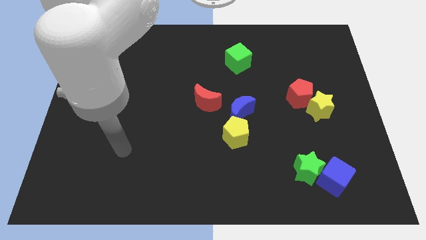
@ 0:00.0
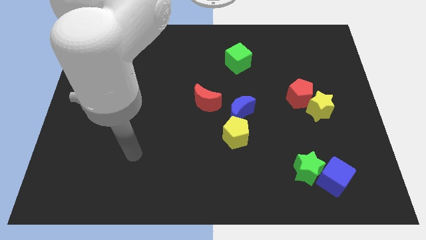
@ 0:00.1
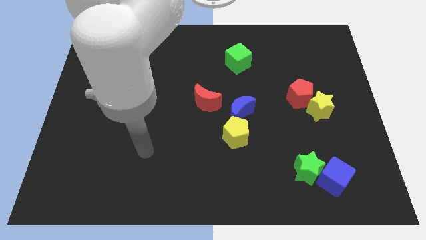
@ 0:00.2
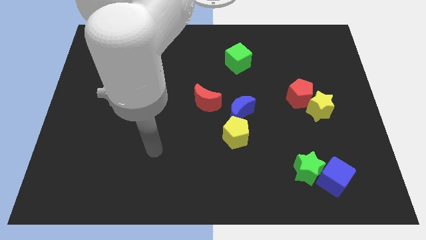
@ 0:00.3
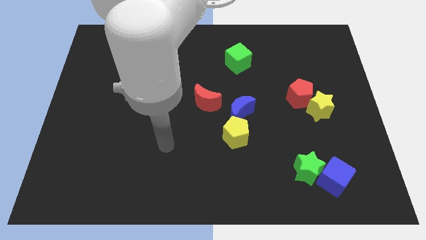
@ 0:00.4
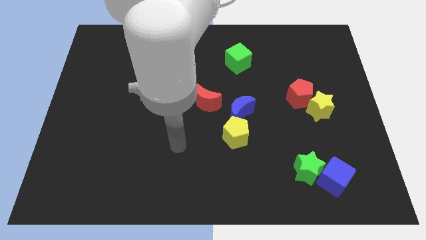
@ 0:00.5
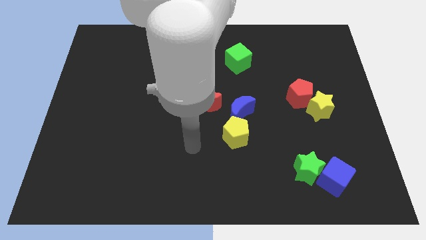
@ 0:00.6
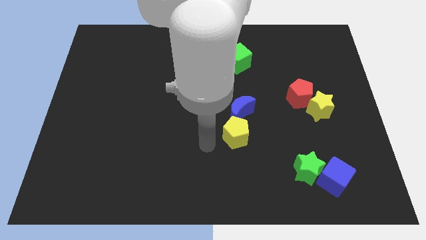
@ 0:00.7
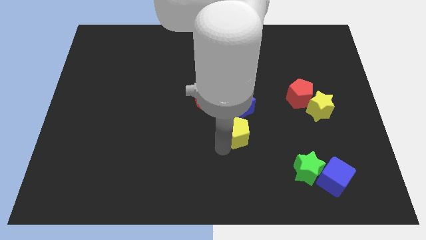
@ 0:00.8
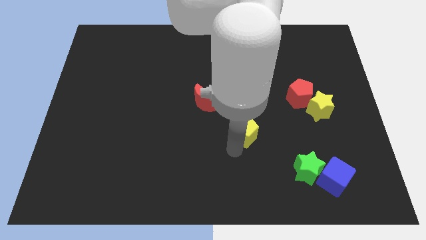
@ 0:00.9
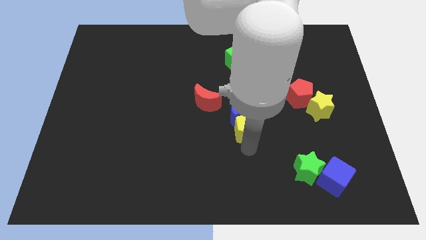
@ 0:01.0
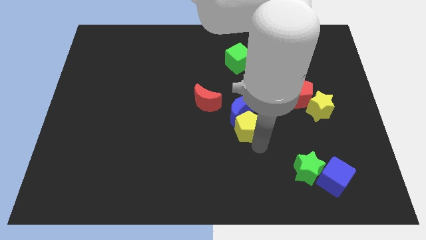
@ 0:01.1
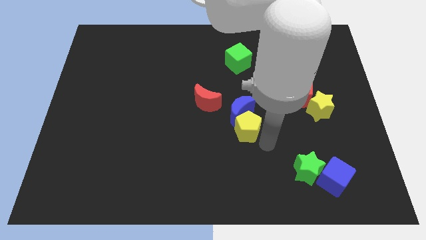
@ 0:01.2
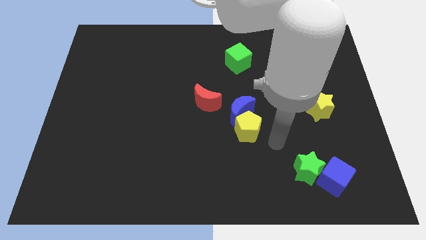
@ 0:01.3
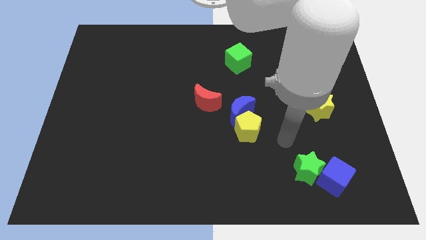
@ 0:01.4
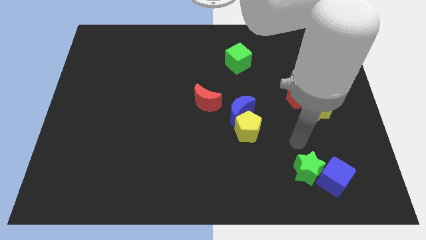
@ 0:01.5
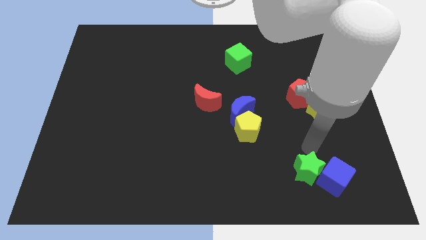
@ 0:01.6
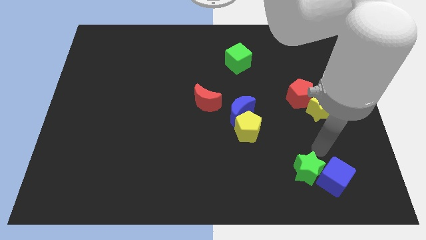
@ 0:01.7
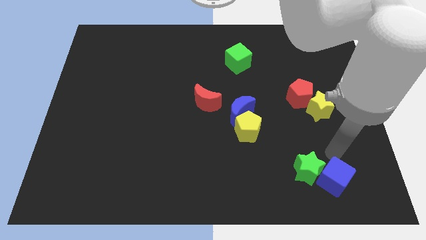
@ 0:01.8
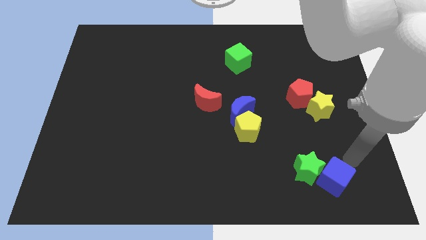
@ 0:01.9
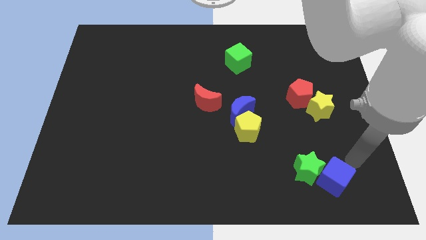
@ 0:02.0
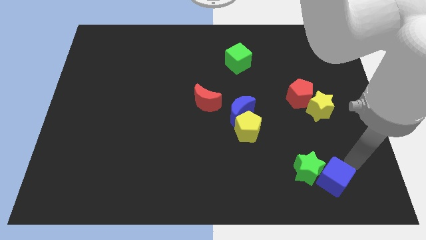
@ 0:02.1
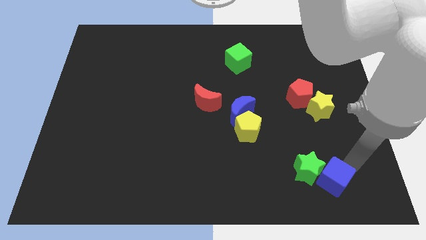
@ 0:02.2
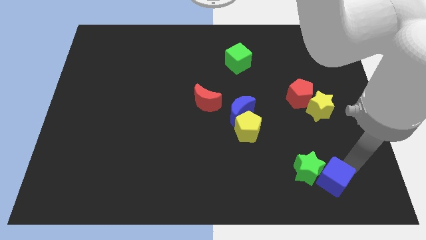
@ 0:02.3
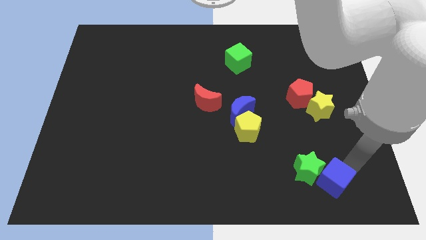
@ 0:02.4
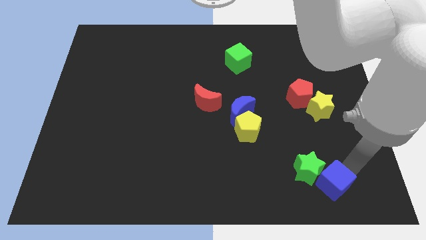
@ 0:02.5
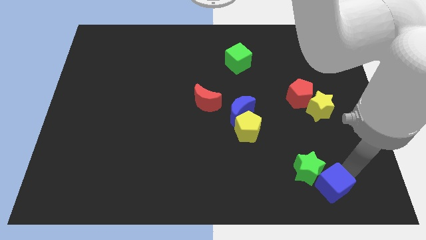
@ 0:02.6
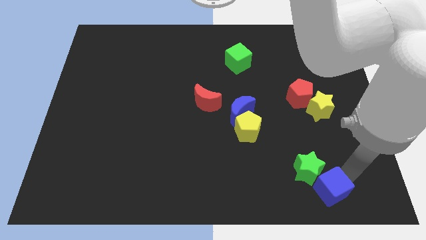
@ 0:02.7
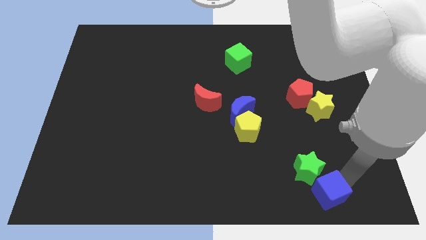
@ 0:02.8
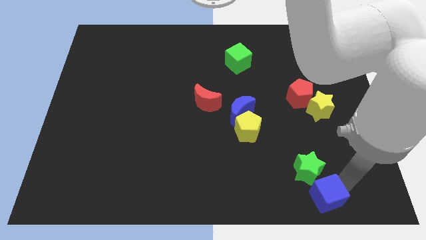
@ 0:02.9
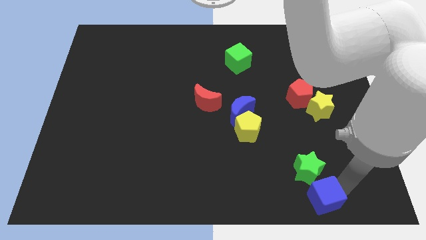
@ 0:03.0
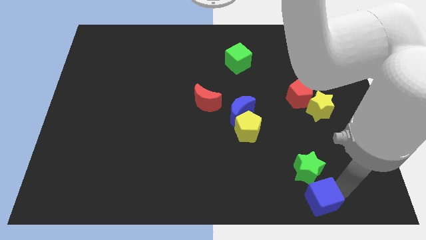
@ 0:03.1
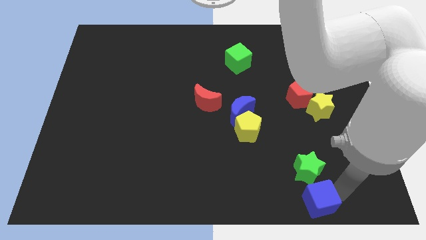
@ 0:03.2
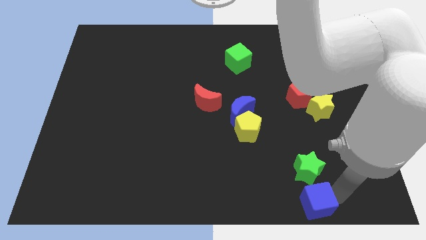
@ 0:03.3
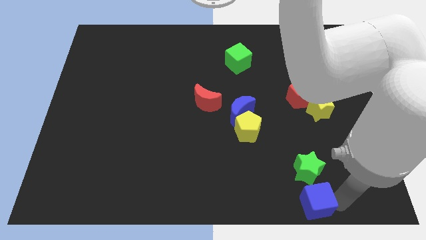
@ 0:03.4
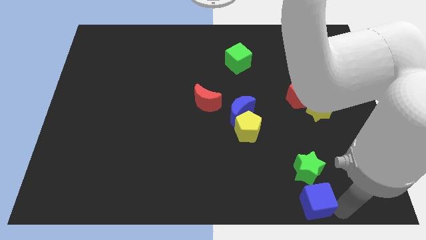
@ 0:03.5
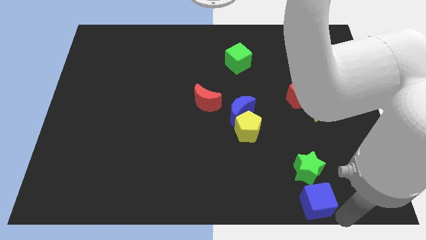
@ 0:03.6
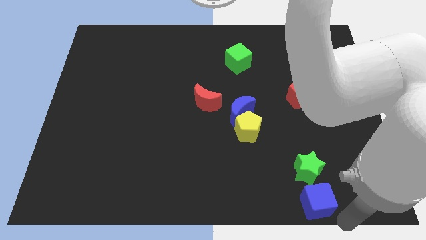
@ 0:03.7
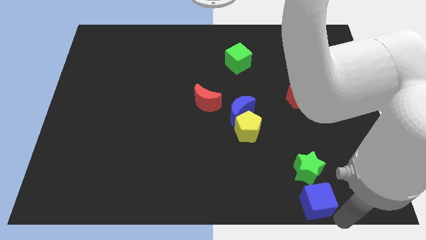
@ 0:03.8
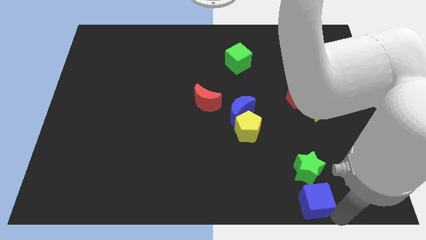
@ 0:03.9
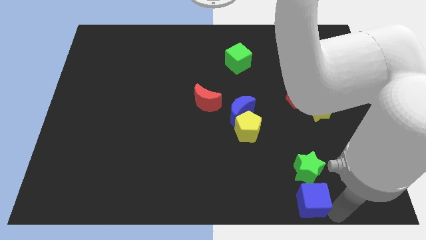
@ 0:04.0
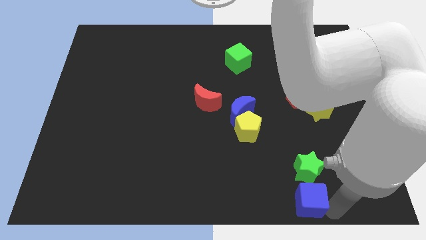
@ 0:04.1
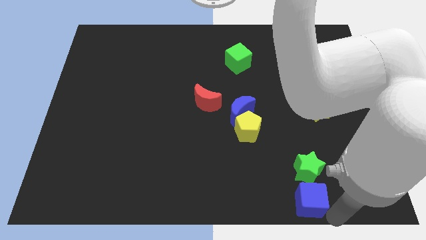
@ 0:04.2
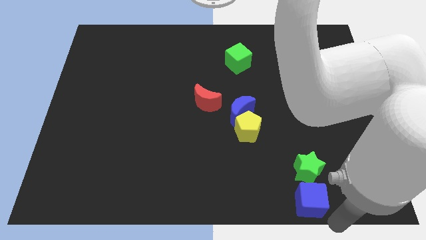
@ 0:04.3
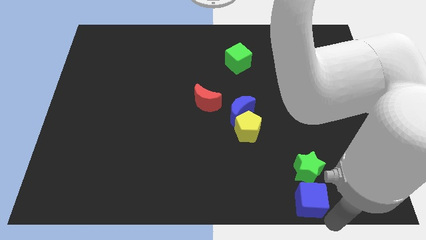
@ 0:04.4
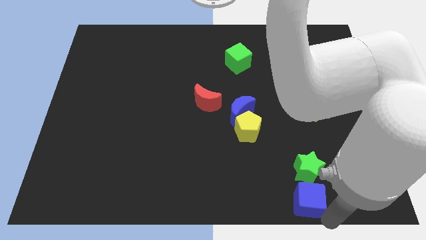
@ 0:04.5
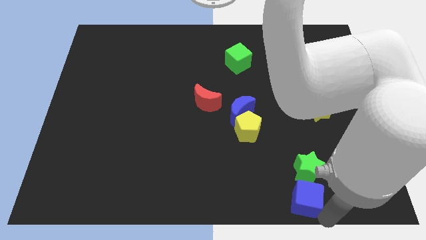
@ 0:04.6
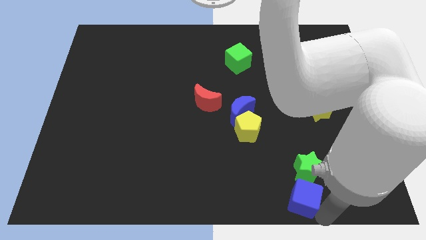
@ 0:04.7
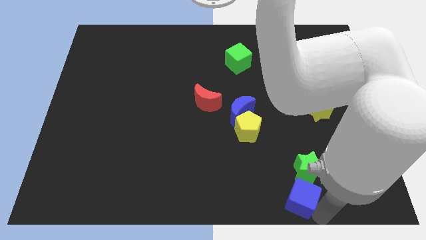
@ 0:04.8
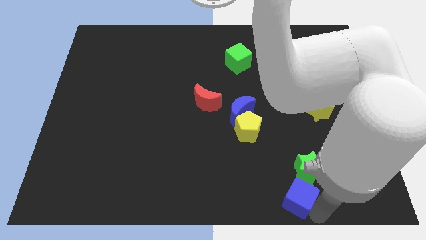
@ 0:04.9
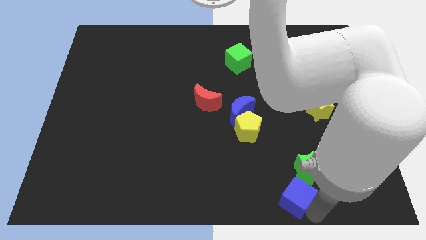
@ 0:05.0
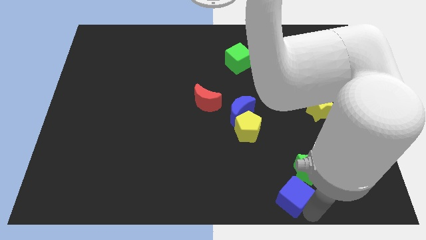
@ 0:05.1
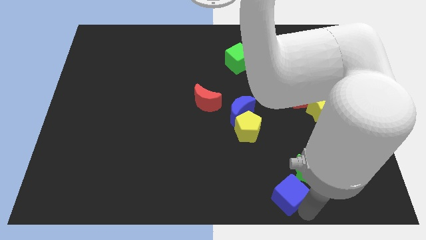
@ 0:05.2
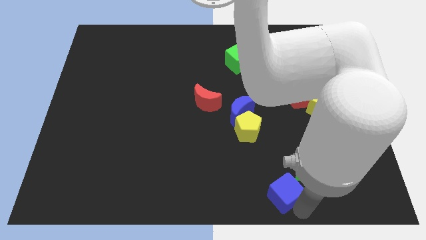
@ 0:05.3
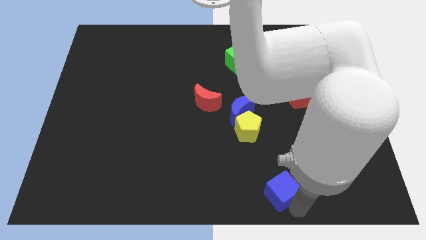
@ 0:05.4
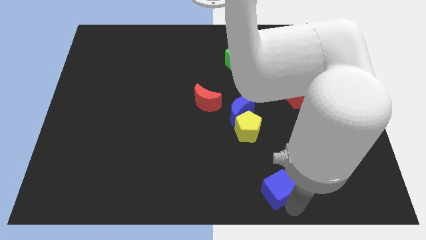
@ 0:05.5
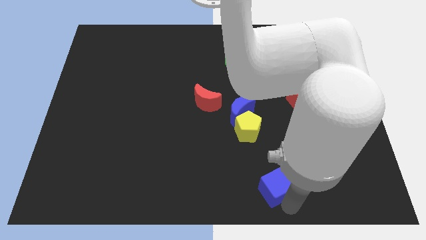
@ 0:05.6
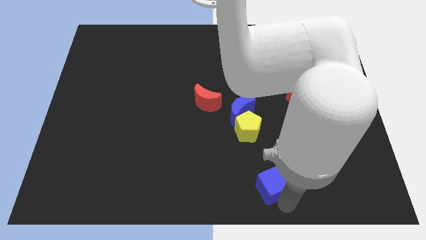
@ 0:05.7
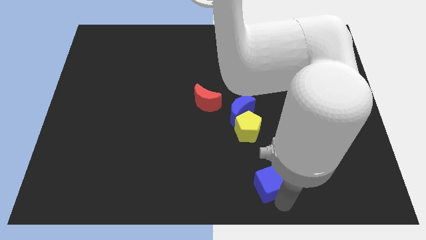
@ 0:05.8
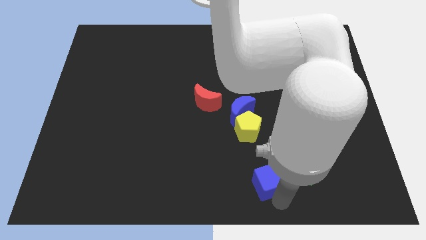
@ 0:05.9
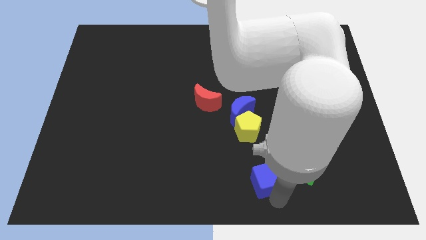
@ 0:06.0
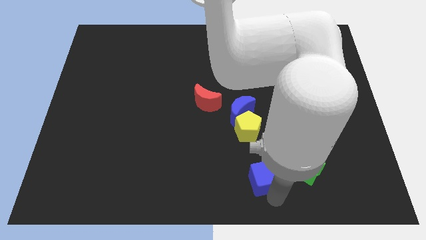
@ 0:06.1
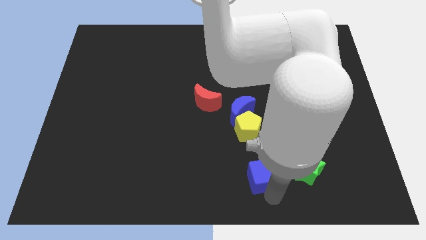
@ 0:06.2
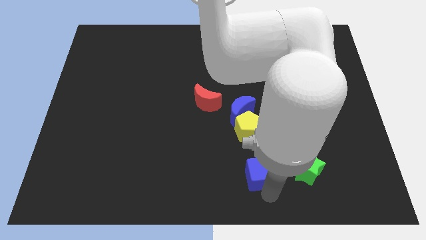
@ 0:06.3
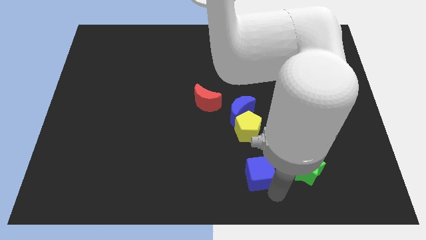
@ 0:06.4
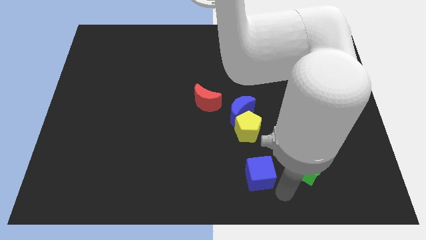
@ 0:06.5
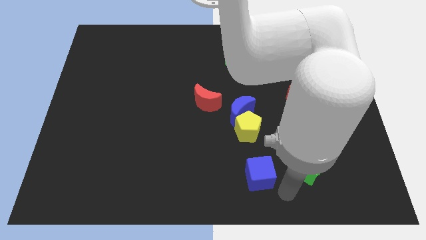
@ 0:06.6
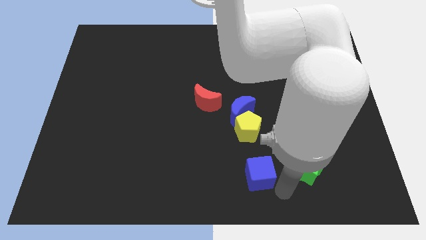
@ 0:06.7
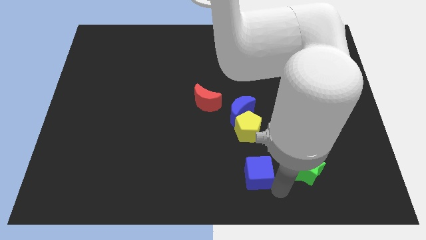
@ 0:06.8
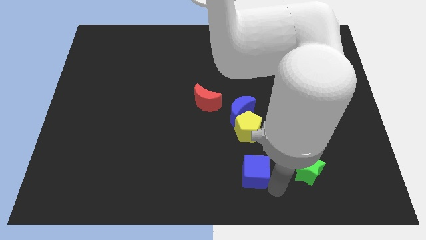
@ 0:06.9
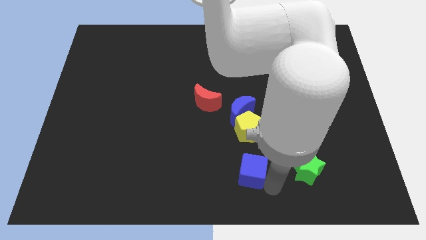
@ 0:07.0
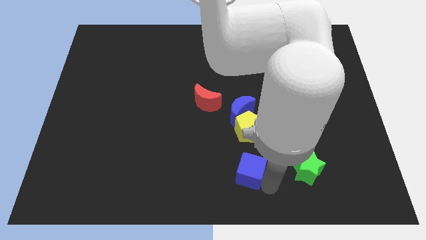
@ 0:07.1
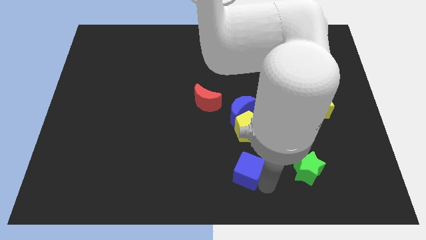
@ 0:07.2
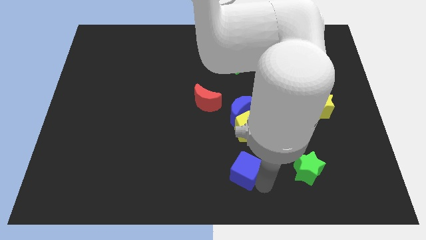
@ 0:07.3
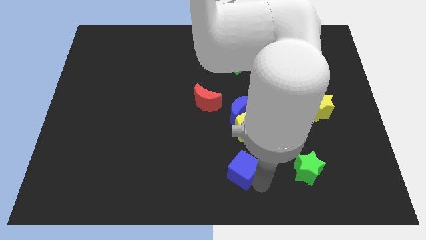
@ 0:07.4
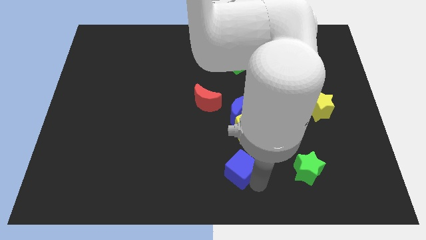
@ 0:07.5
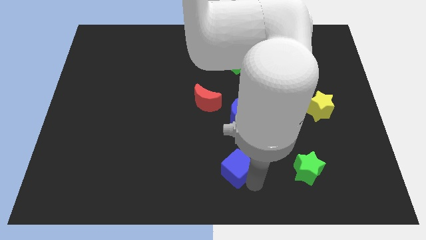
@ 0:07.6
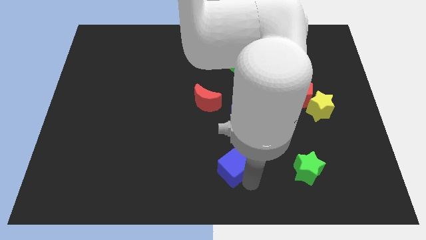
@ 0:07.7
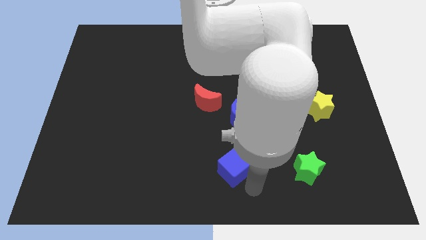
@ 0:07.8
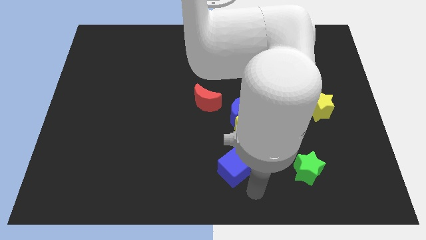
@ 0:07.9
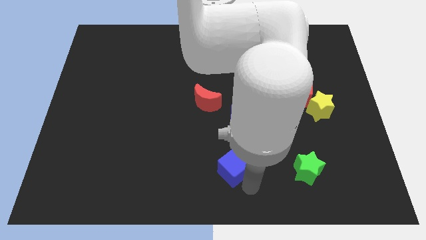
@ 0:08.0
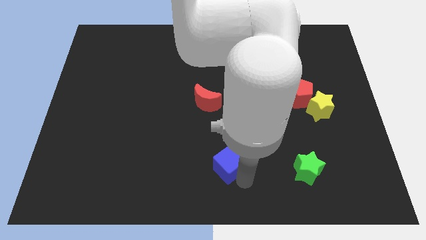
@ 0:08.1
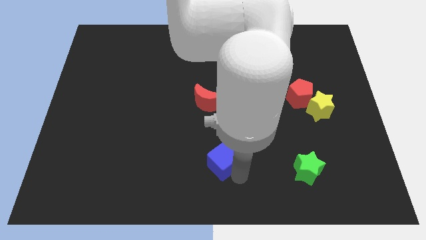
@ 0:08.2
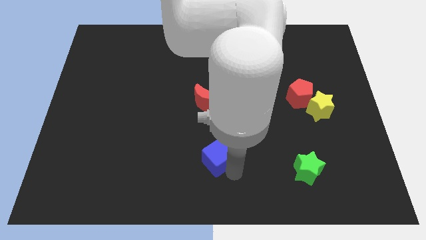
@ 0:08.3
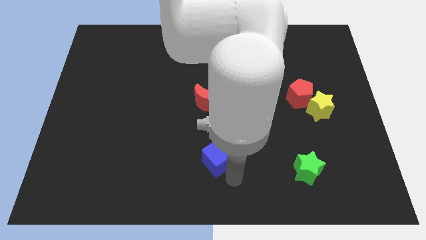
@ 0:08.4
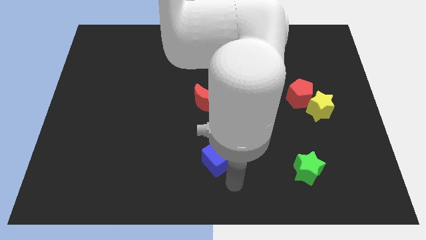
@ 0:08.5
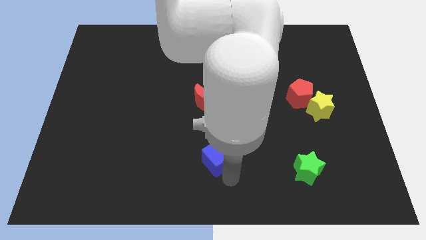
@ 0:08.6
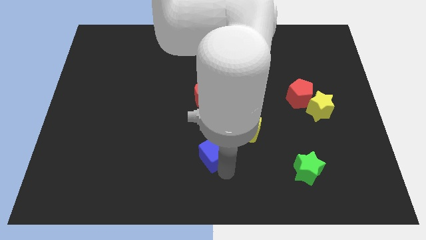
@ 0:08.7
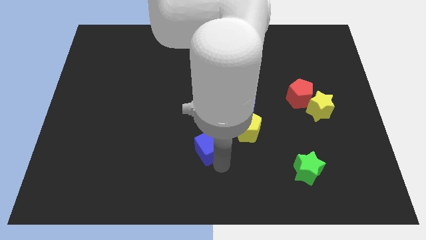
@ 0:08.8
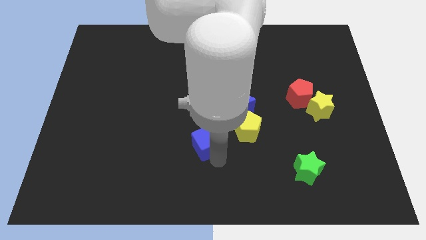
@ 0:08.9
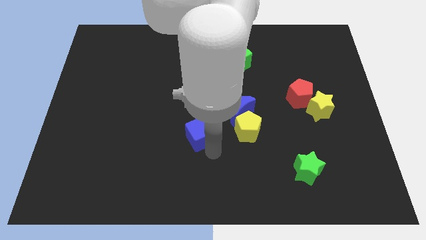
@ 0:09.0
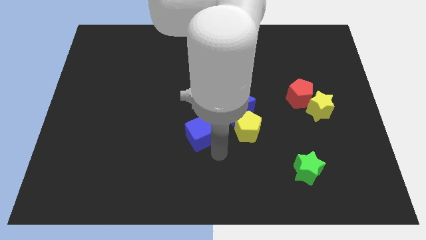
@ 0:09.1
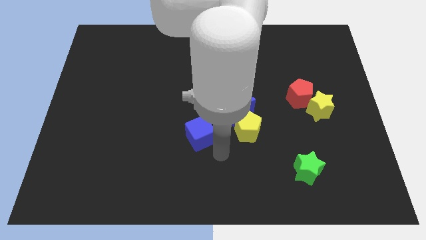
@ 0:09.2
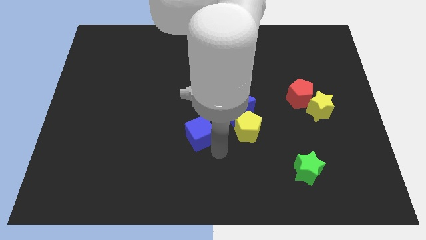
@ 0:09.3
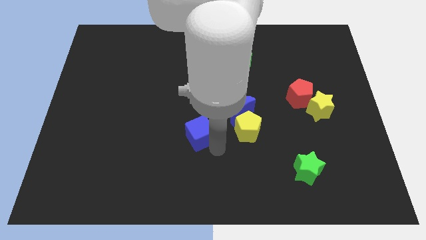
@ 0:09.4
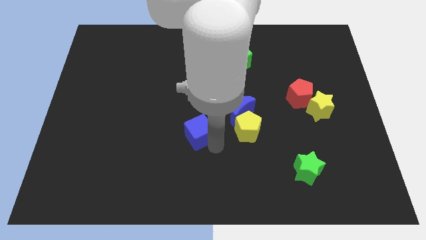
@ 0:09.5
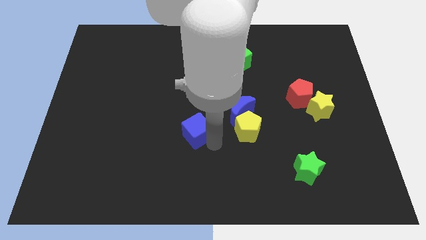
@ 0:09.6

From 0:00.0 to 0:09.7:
put the blue cube to the bottom left side of the red moon
